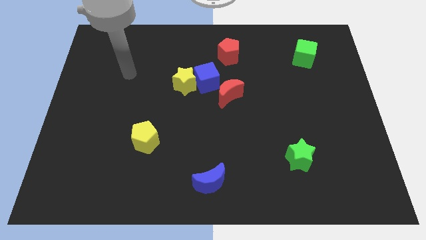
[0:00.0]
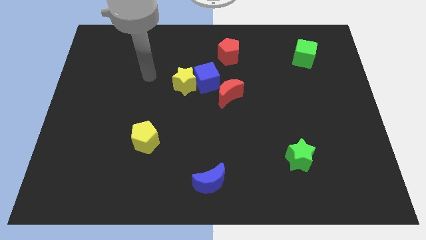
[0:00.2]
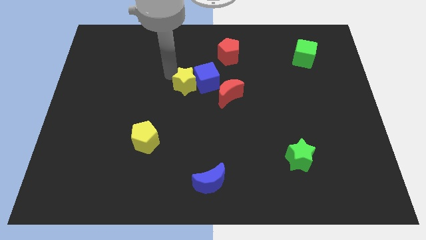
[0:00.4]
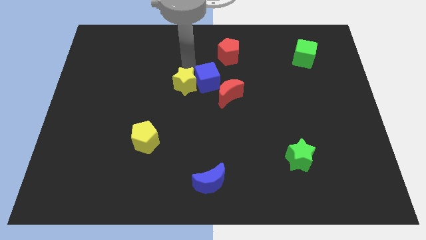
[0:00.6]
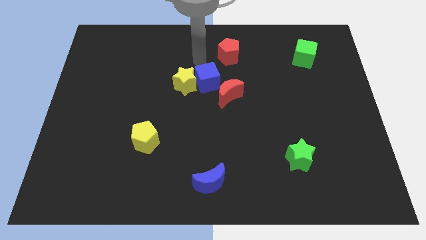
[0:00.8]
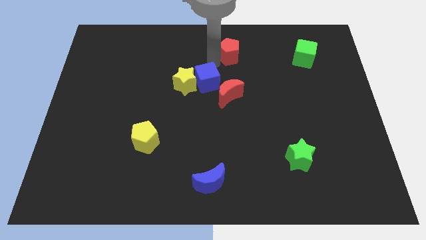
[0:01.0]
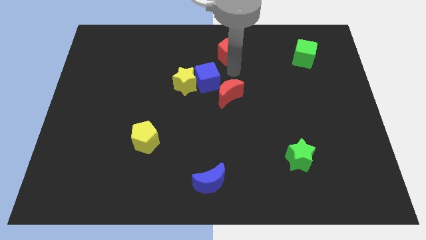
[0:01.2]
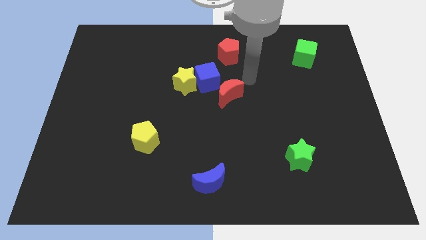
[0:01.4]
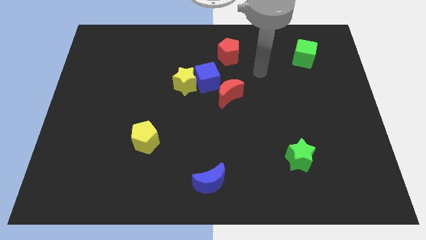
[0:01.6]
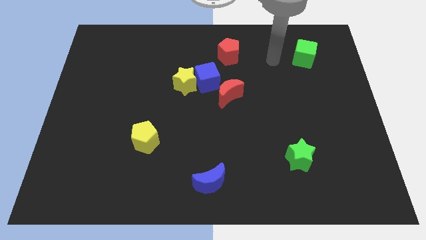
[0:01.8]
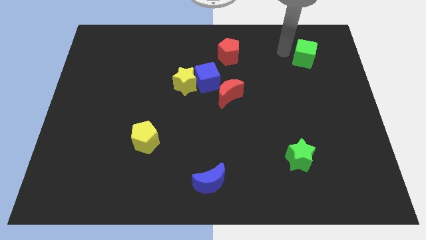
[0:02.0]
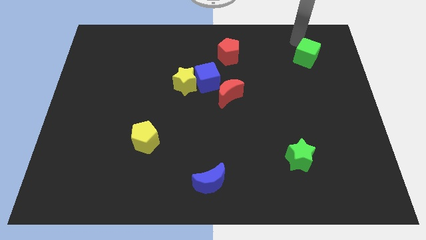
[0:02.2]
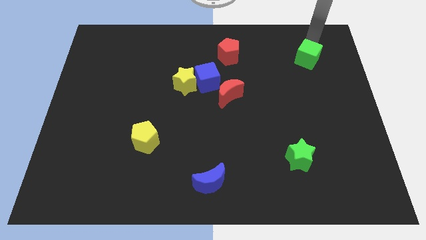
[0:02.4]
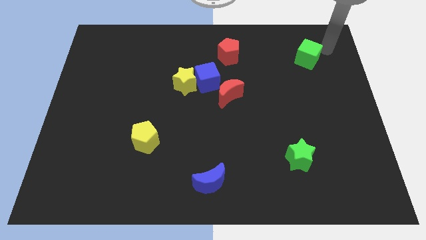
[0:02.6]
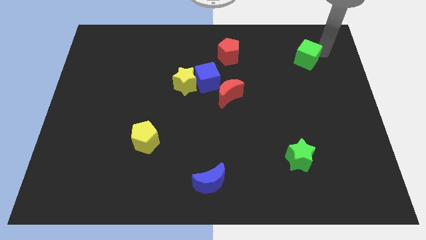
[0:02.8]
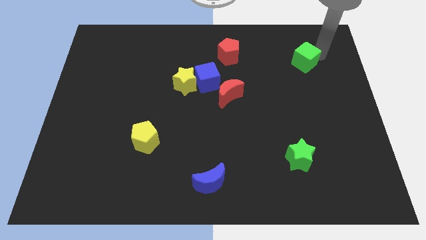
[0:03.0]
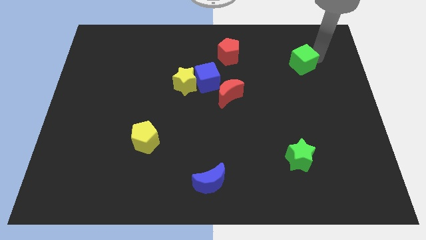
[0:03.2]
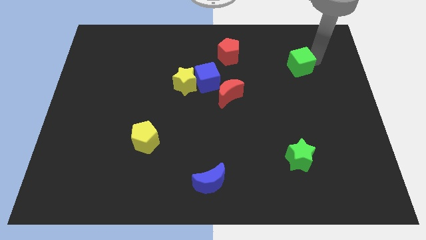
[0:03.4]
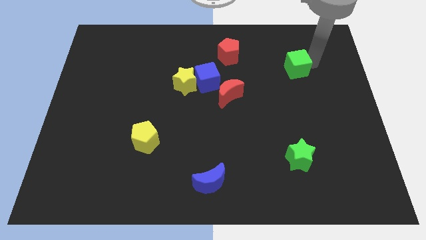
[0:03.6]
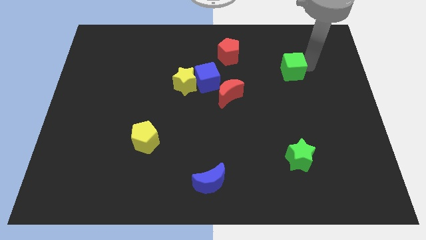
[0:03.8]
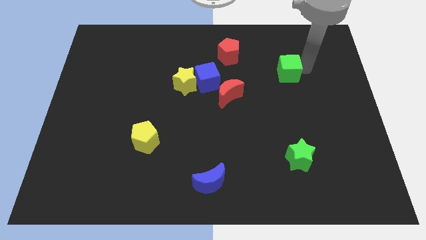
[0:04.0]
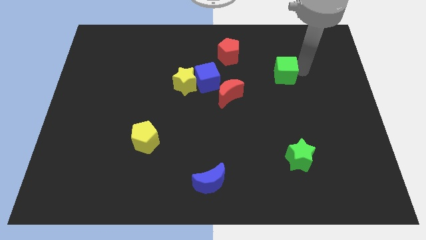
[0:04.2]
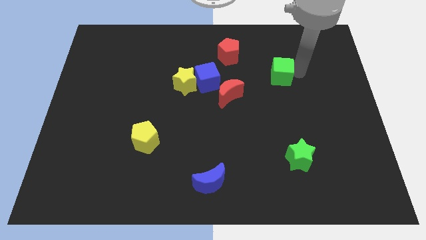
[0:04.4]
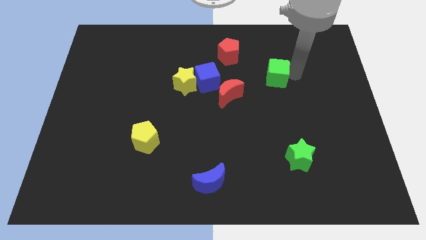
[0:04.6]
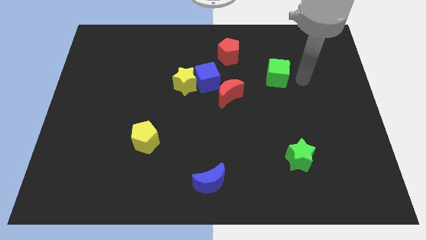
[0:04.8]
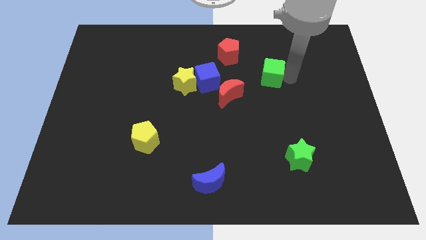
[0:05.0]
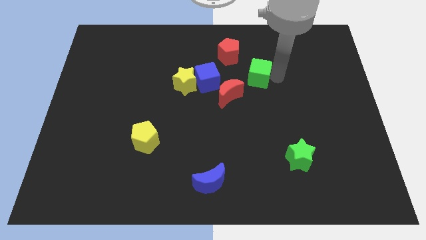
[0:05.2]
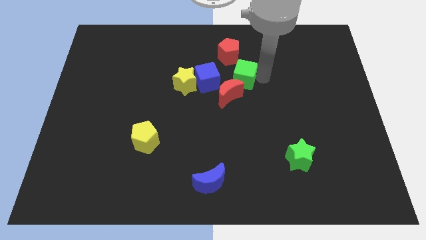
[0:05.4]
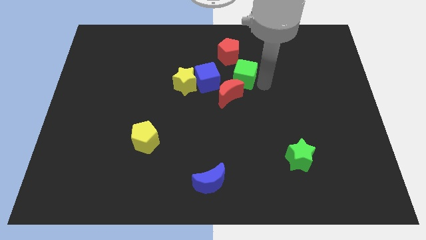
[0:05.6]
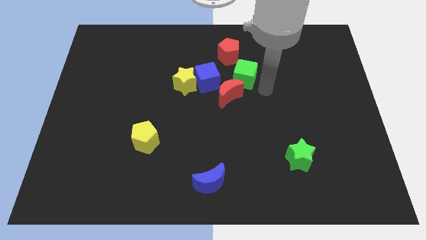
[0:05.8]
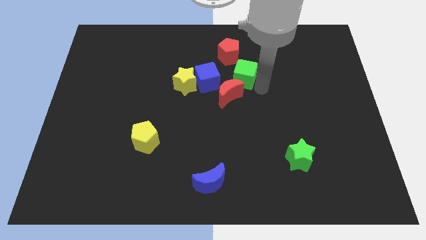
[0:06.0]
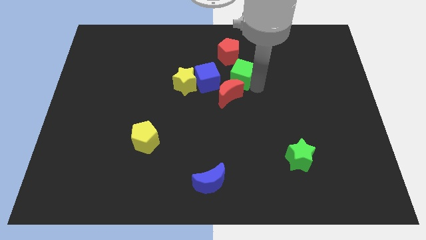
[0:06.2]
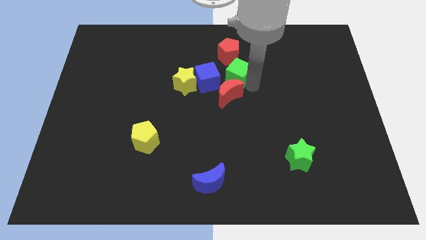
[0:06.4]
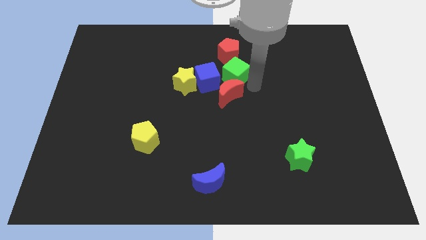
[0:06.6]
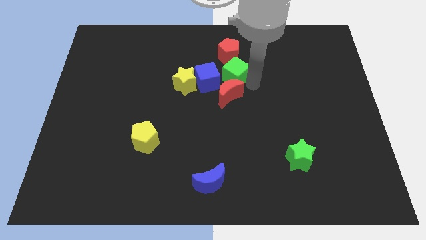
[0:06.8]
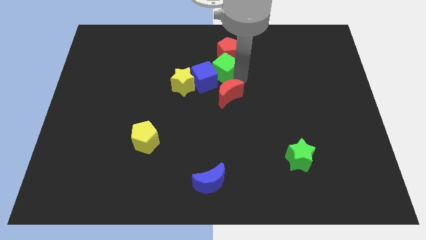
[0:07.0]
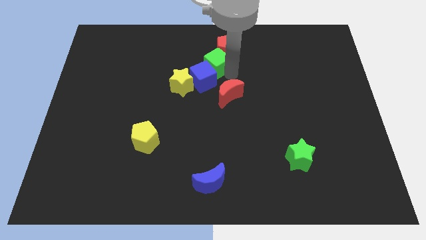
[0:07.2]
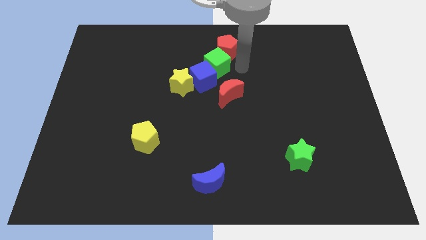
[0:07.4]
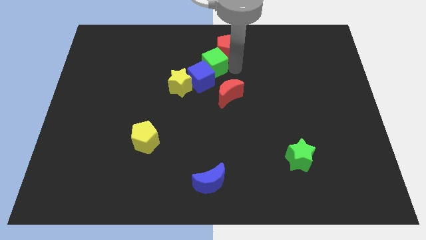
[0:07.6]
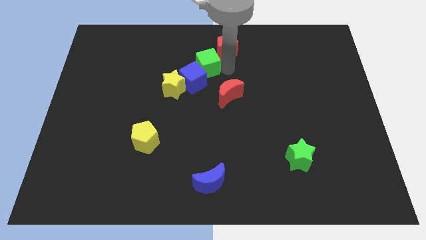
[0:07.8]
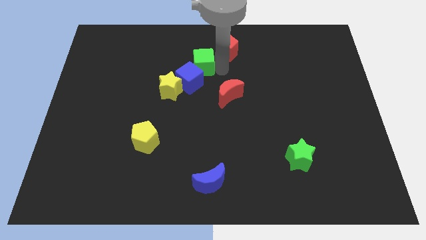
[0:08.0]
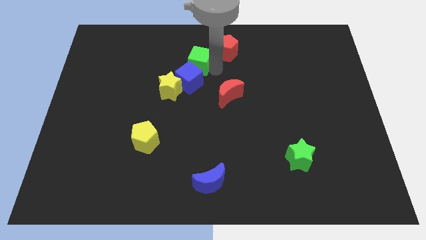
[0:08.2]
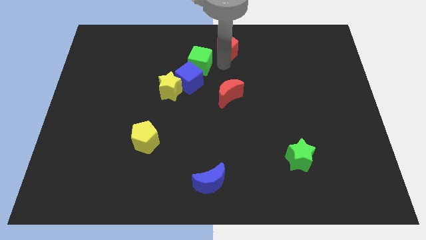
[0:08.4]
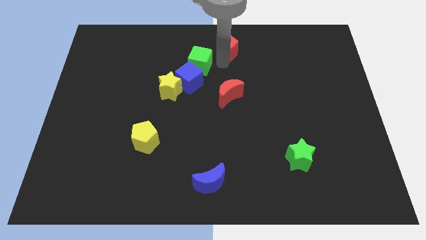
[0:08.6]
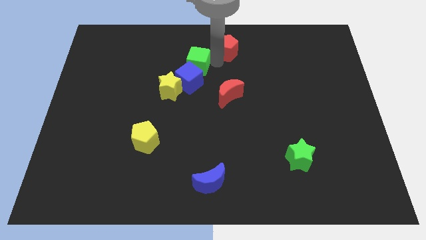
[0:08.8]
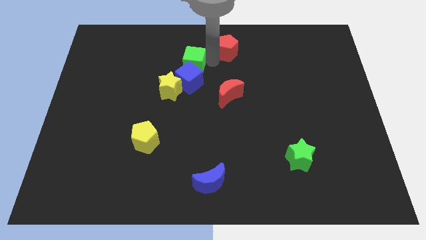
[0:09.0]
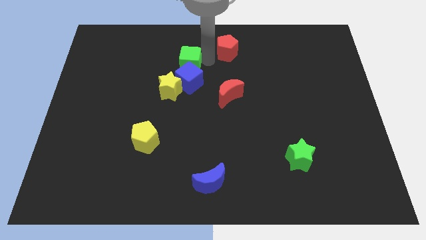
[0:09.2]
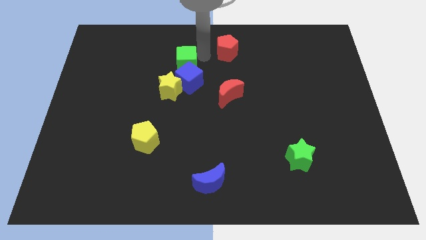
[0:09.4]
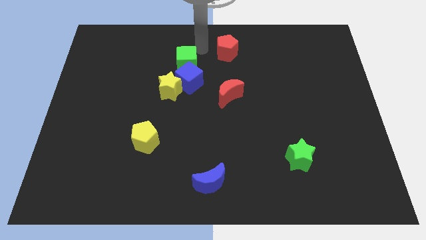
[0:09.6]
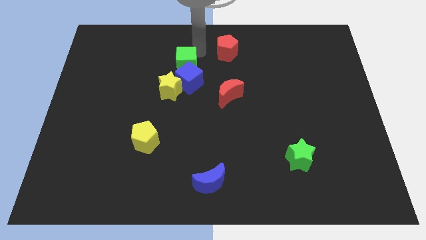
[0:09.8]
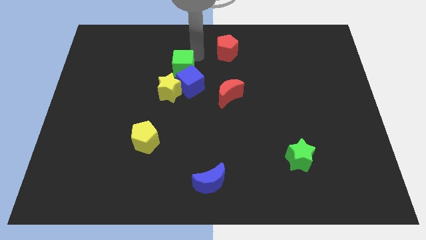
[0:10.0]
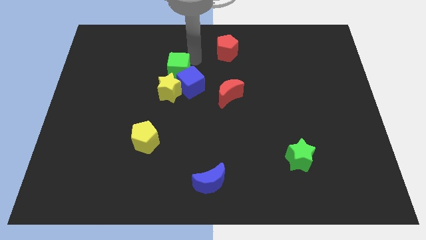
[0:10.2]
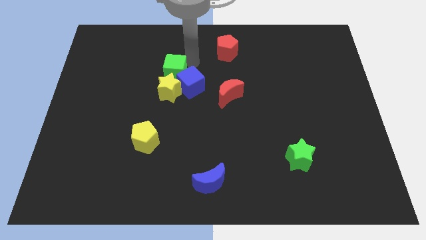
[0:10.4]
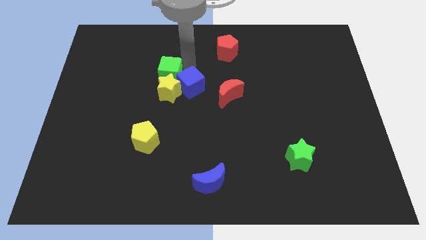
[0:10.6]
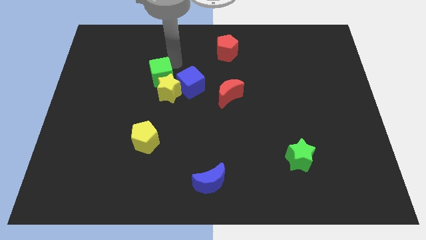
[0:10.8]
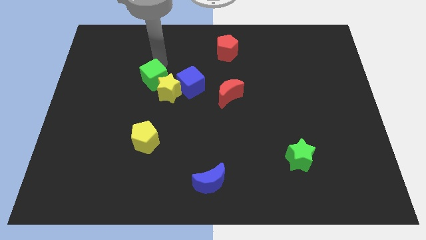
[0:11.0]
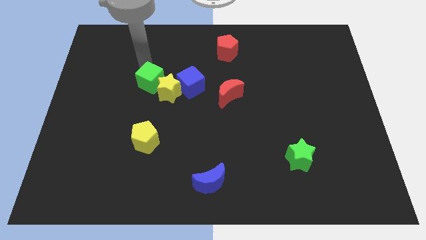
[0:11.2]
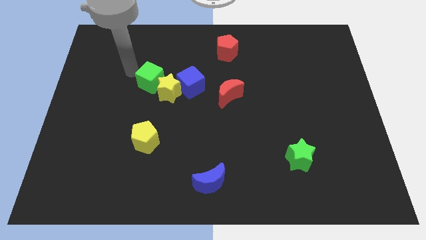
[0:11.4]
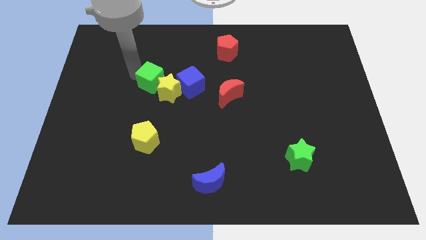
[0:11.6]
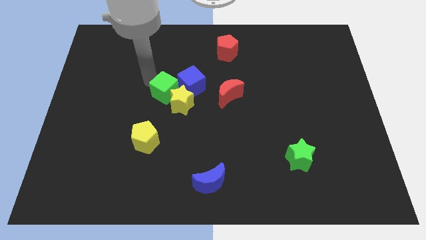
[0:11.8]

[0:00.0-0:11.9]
slide the green cube to the left of the red moon

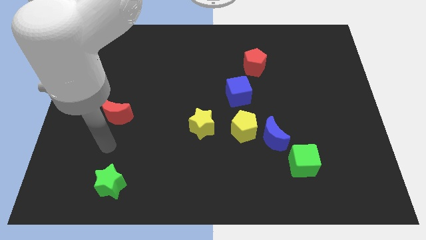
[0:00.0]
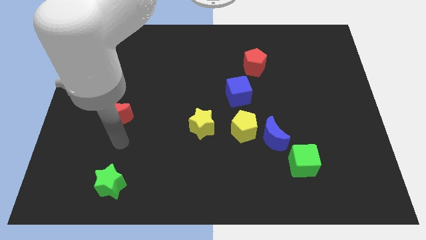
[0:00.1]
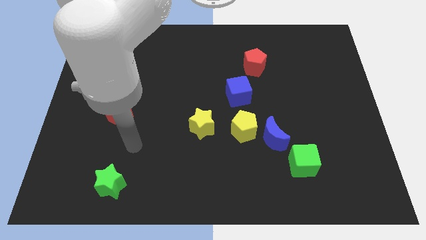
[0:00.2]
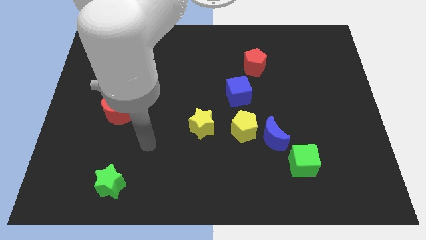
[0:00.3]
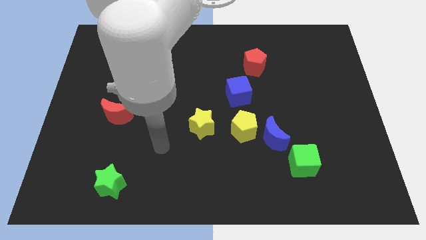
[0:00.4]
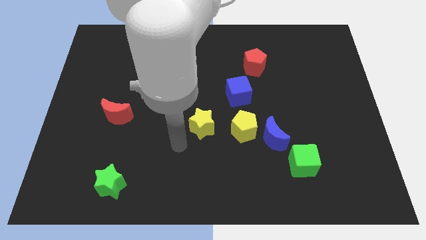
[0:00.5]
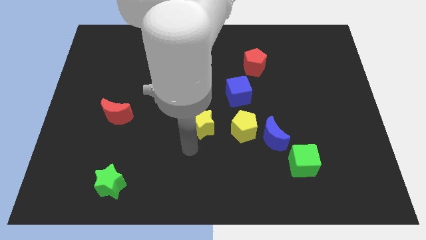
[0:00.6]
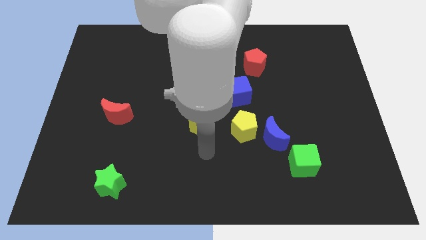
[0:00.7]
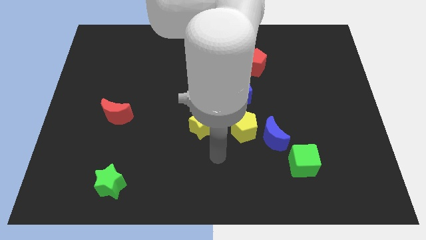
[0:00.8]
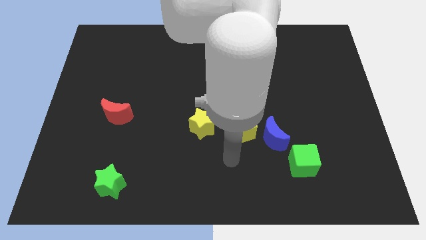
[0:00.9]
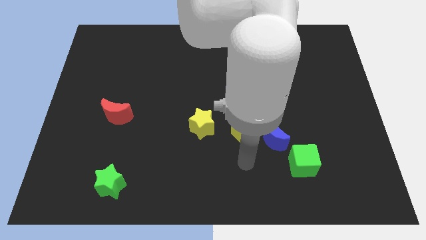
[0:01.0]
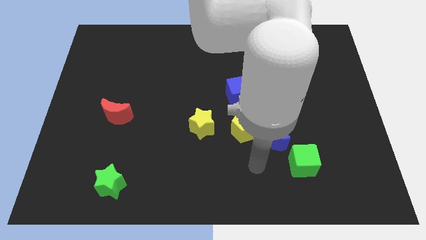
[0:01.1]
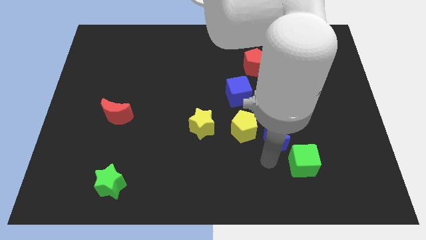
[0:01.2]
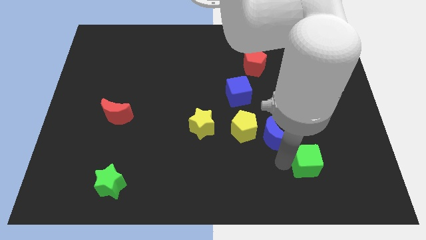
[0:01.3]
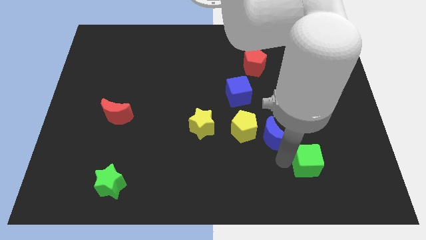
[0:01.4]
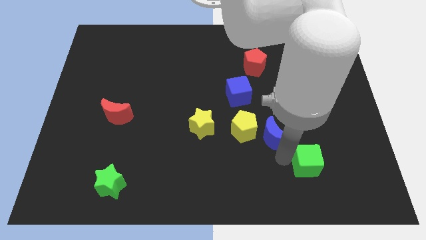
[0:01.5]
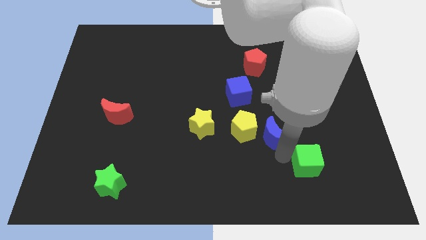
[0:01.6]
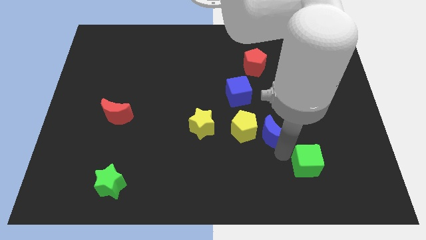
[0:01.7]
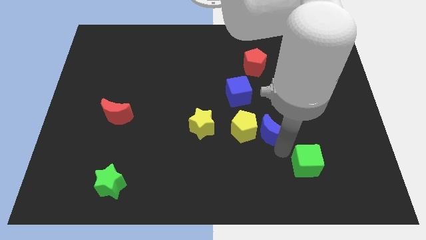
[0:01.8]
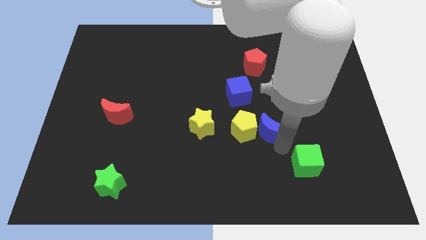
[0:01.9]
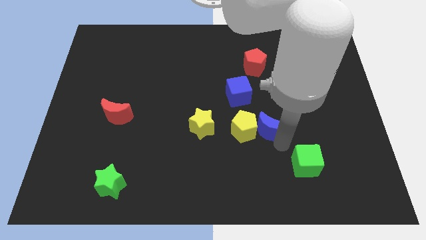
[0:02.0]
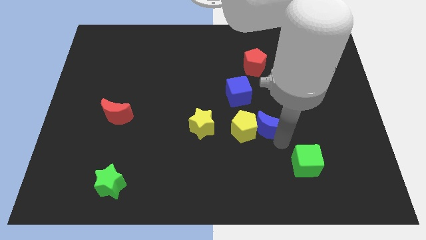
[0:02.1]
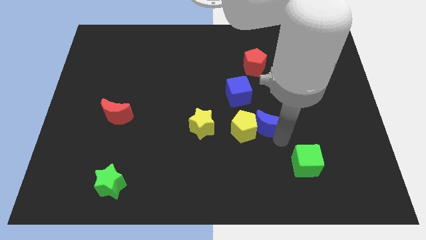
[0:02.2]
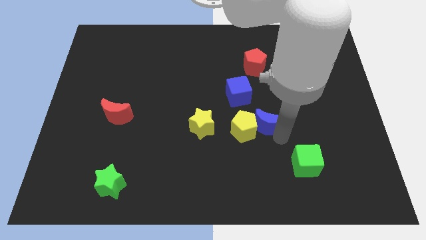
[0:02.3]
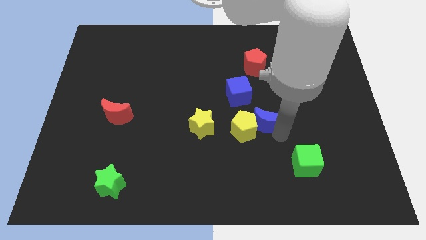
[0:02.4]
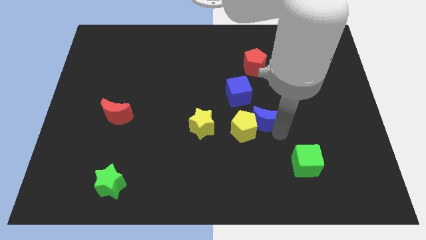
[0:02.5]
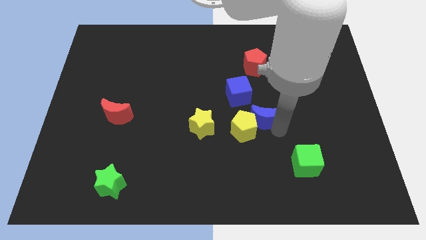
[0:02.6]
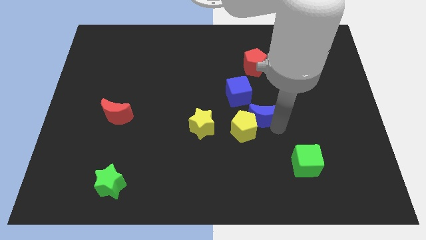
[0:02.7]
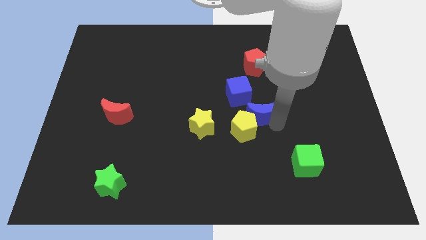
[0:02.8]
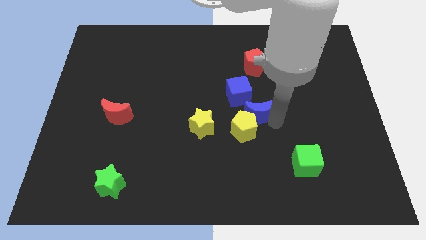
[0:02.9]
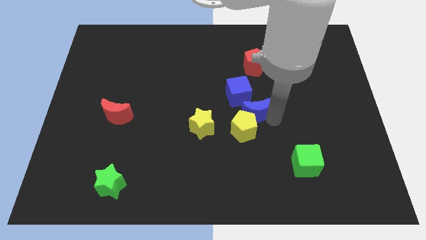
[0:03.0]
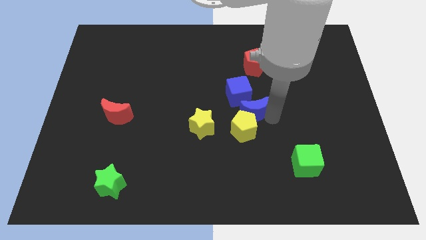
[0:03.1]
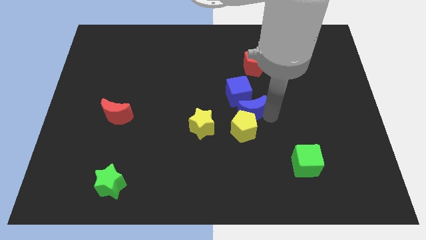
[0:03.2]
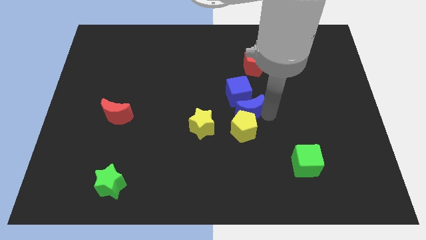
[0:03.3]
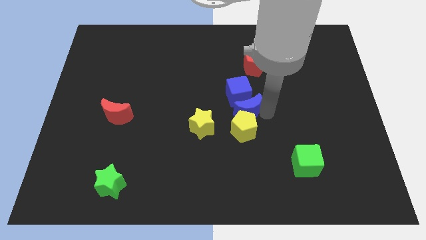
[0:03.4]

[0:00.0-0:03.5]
slide the blue moon to the top left side of the yellow pentagon
